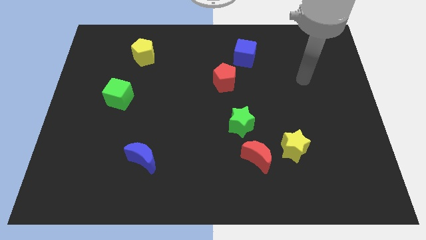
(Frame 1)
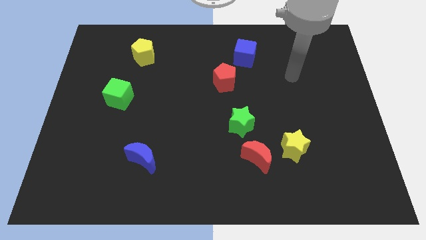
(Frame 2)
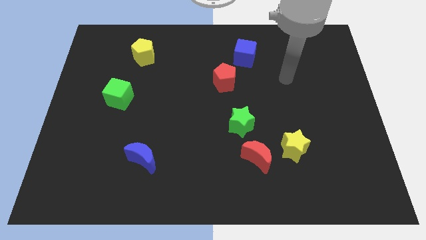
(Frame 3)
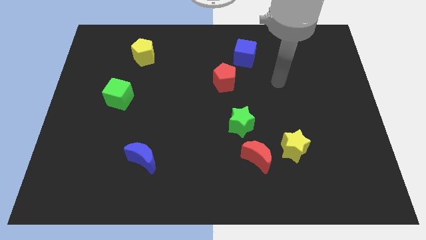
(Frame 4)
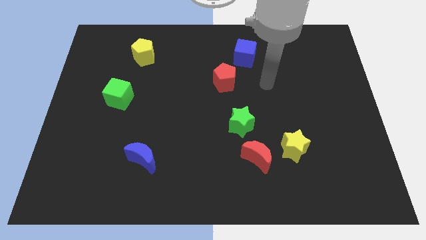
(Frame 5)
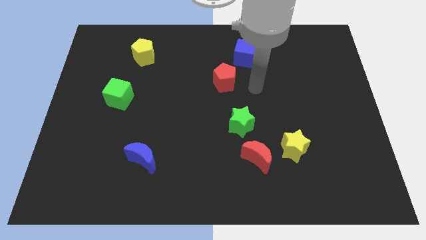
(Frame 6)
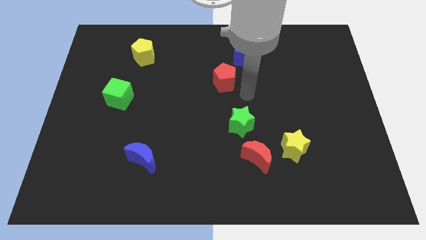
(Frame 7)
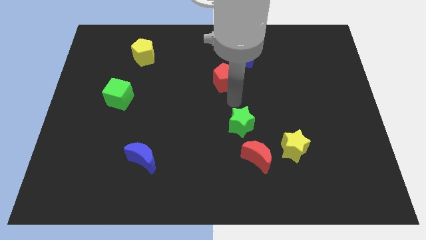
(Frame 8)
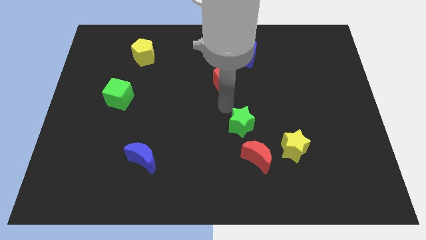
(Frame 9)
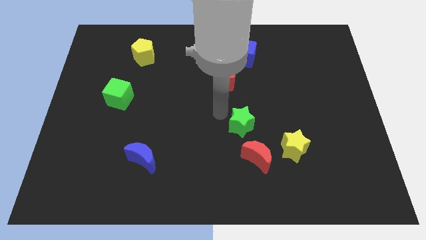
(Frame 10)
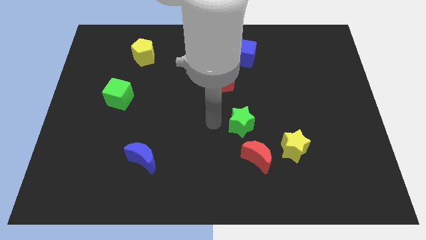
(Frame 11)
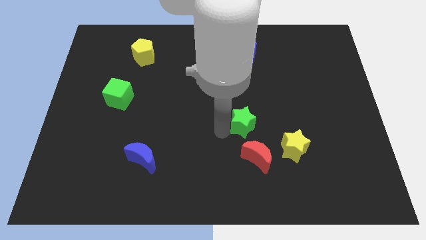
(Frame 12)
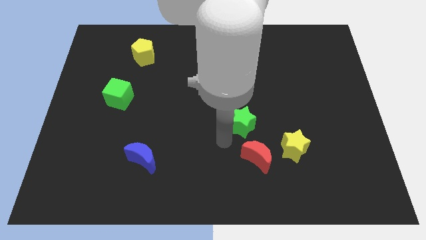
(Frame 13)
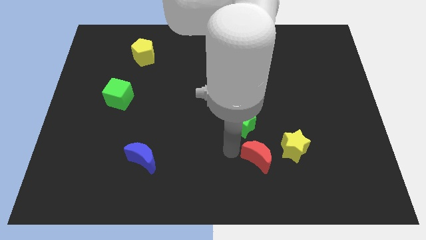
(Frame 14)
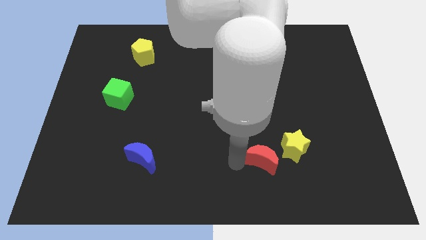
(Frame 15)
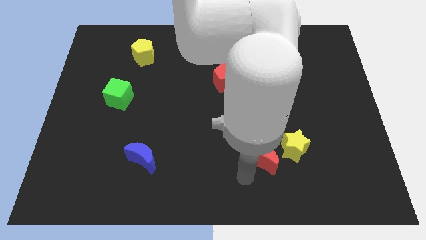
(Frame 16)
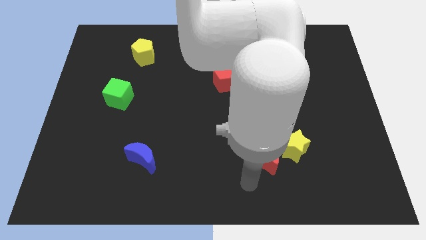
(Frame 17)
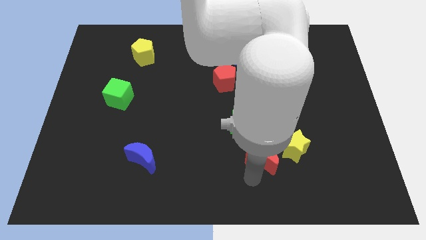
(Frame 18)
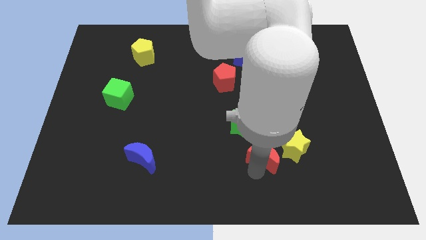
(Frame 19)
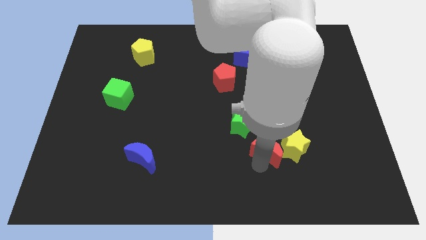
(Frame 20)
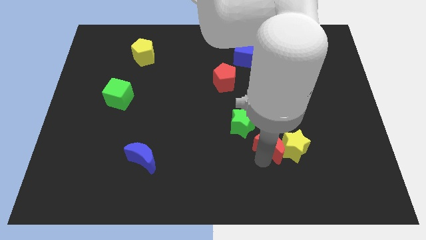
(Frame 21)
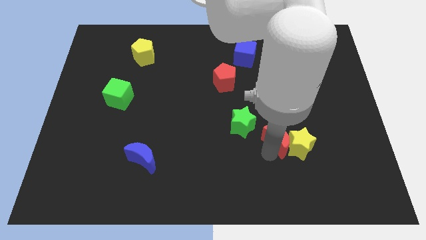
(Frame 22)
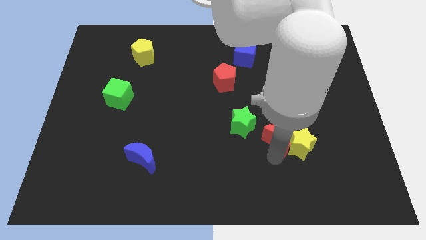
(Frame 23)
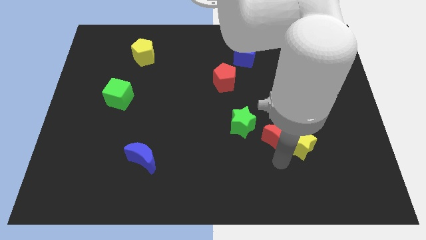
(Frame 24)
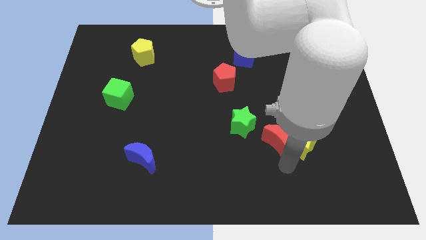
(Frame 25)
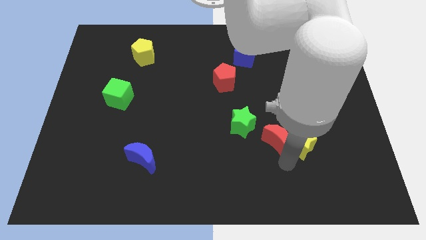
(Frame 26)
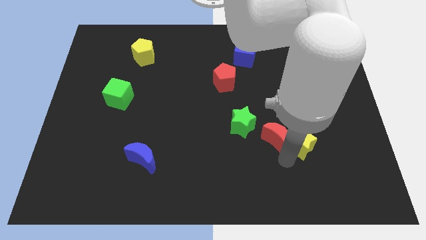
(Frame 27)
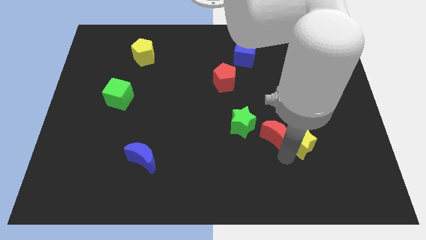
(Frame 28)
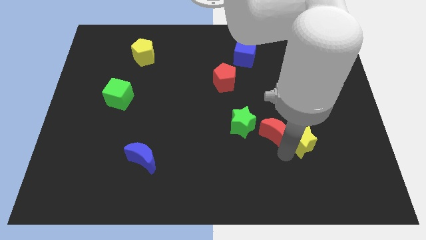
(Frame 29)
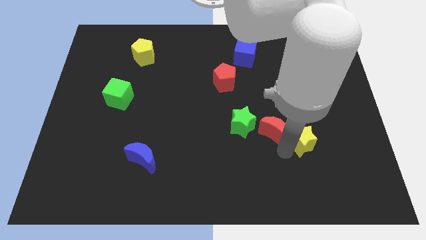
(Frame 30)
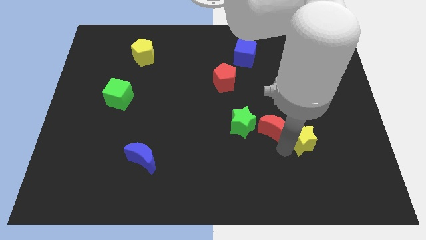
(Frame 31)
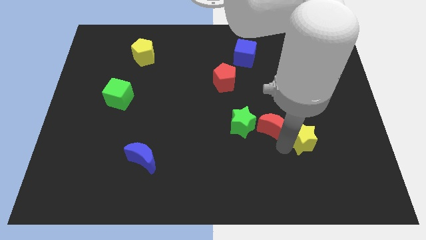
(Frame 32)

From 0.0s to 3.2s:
slightly slide the red moon upwards

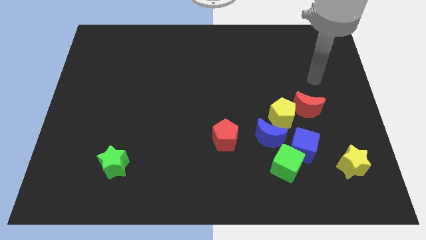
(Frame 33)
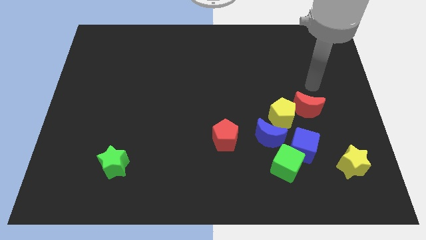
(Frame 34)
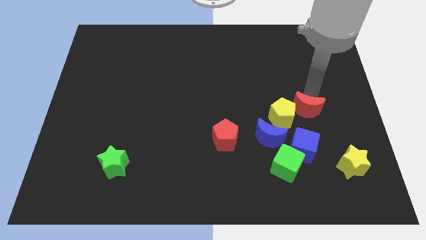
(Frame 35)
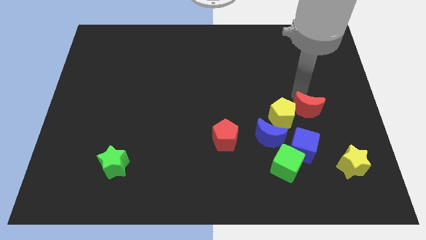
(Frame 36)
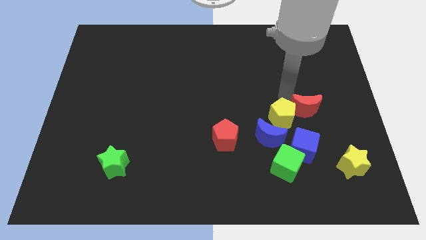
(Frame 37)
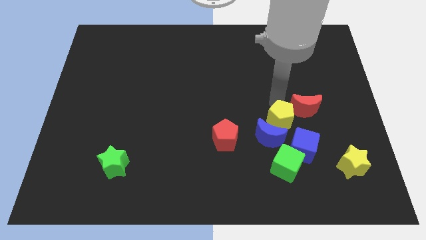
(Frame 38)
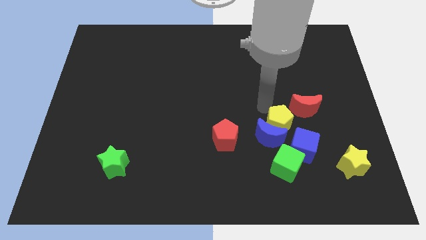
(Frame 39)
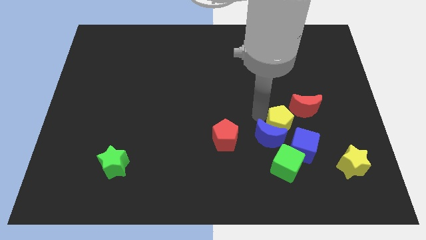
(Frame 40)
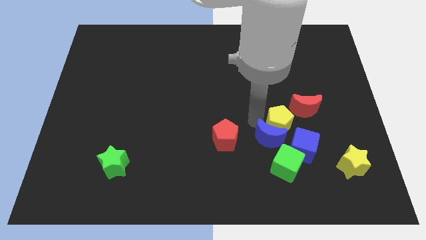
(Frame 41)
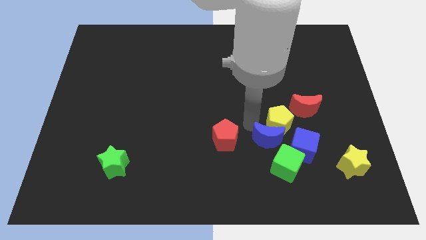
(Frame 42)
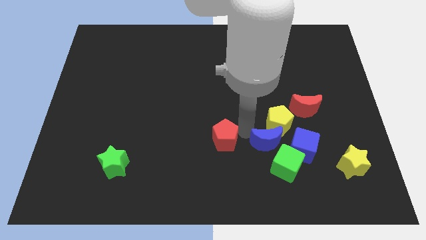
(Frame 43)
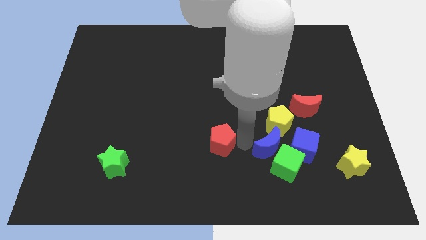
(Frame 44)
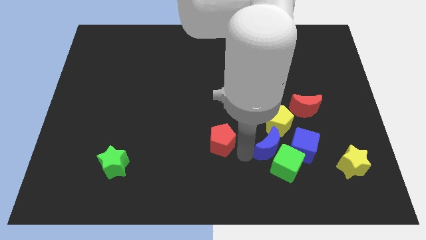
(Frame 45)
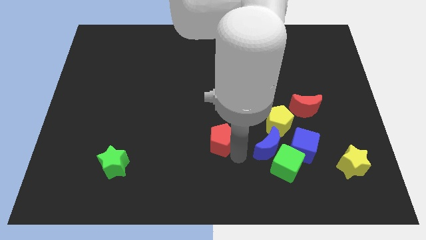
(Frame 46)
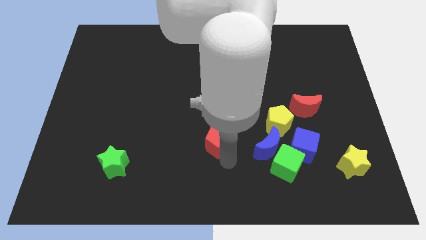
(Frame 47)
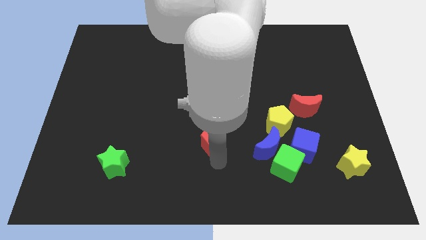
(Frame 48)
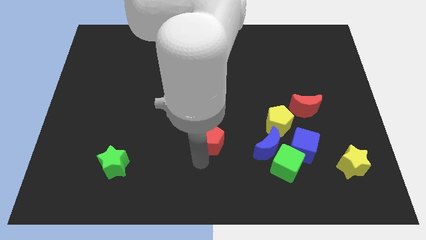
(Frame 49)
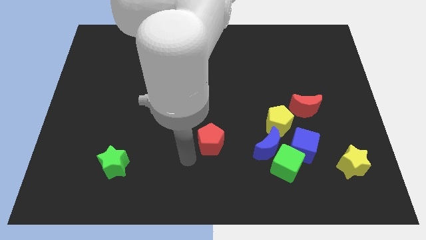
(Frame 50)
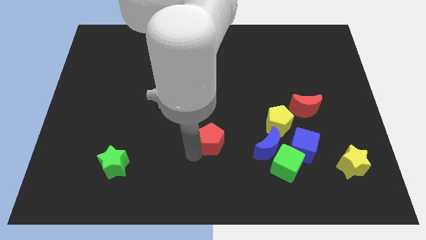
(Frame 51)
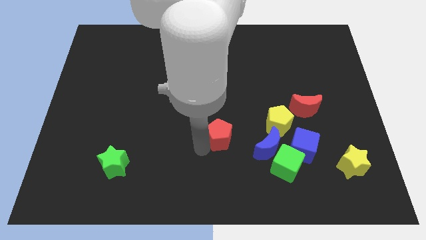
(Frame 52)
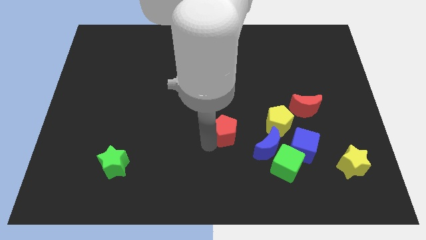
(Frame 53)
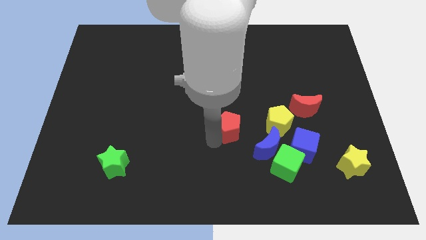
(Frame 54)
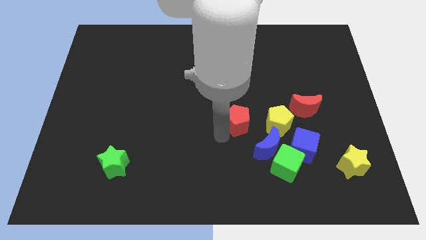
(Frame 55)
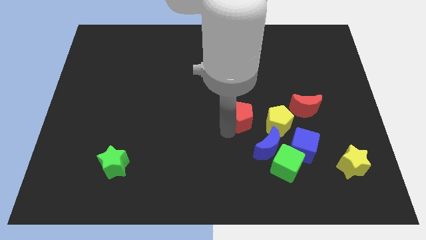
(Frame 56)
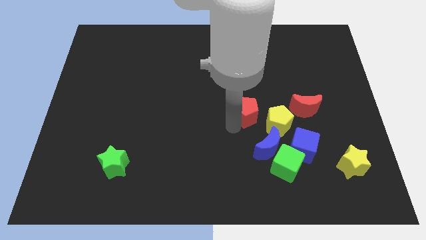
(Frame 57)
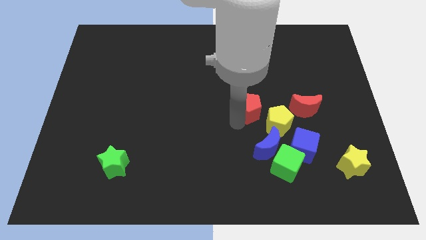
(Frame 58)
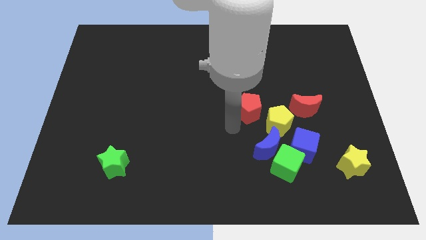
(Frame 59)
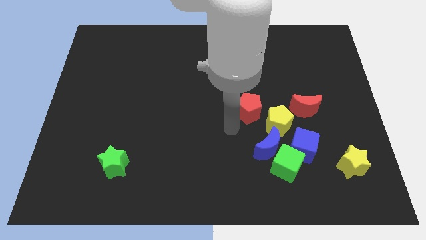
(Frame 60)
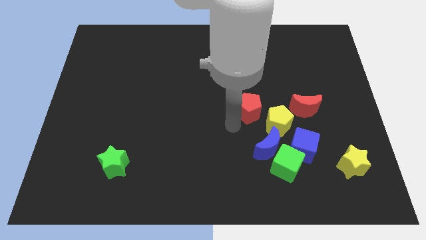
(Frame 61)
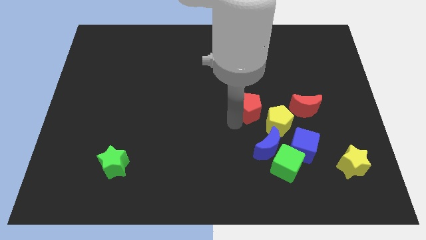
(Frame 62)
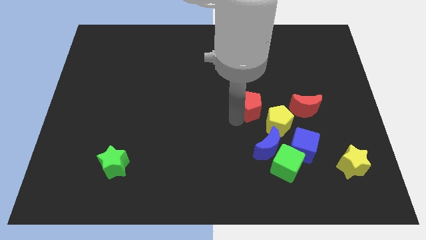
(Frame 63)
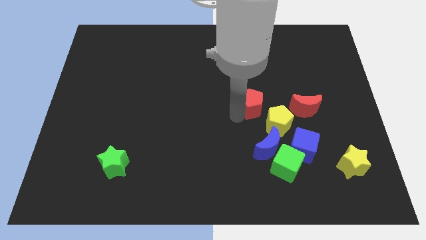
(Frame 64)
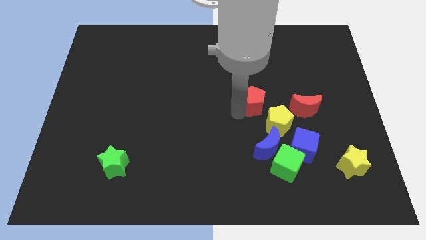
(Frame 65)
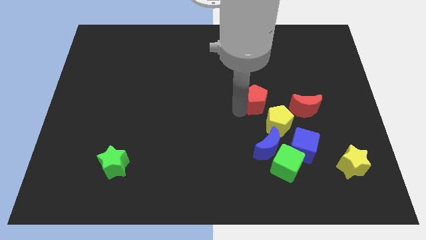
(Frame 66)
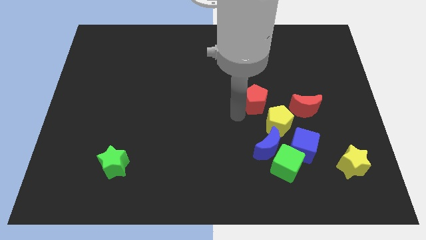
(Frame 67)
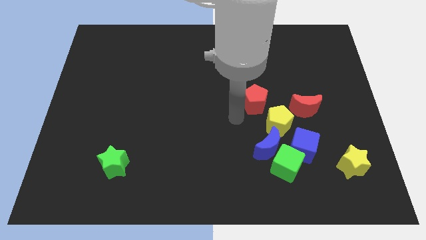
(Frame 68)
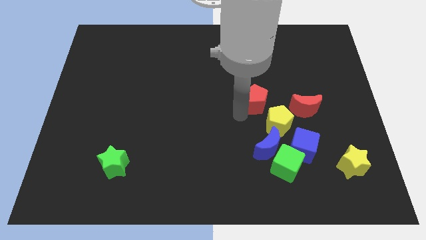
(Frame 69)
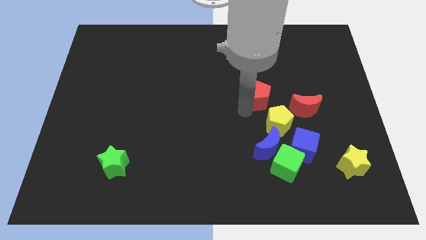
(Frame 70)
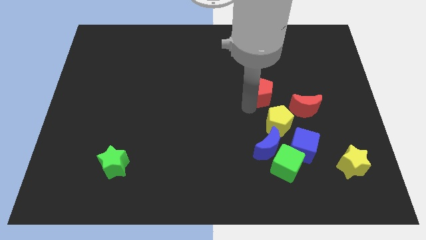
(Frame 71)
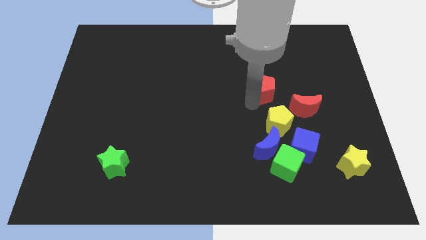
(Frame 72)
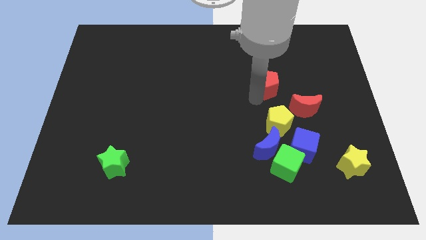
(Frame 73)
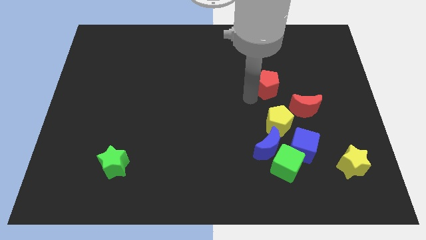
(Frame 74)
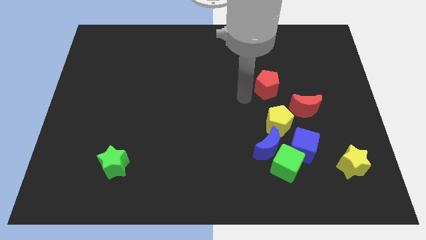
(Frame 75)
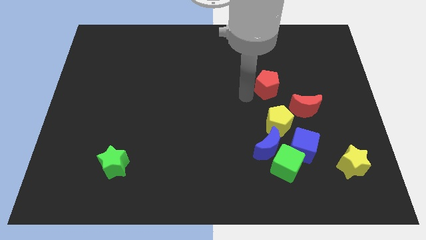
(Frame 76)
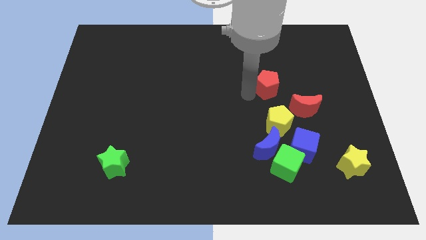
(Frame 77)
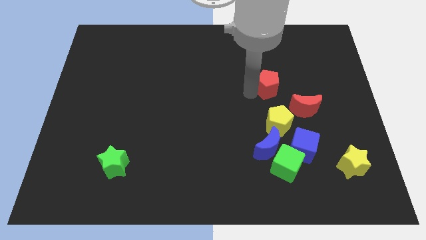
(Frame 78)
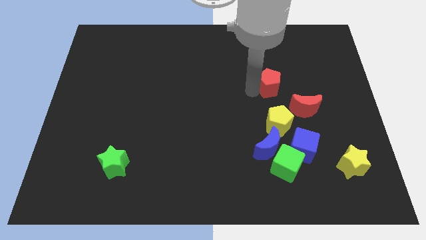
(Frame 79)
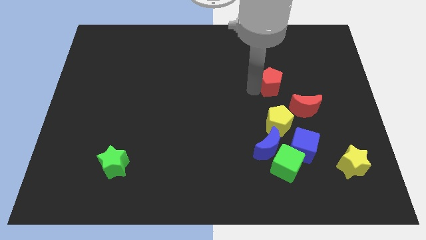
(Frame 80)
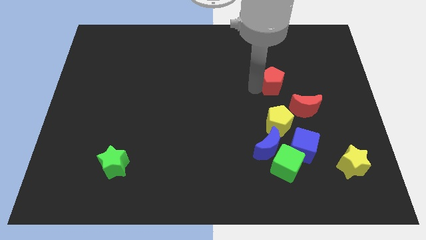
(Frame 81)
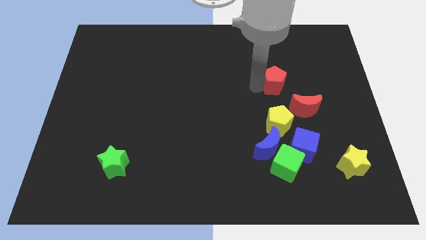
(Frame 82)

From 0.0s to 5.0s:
move the red pentagon diagonally upwards and right
